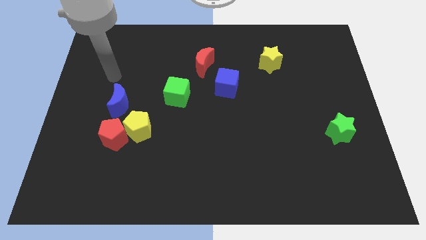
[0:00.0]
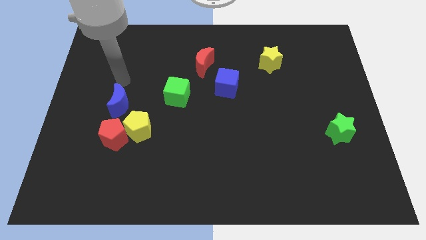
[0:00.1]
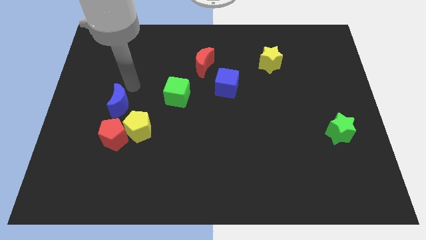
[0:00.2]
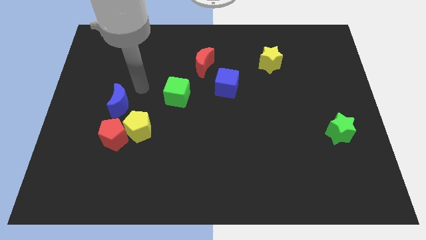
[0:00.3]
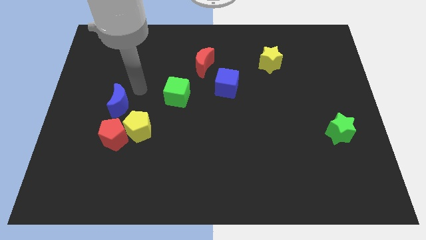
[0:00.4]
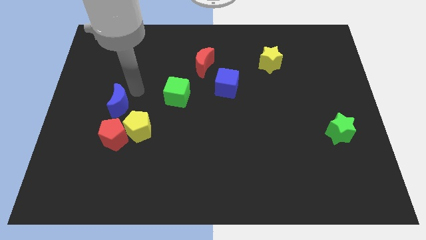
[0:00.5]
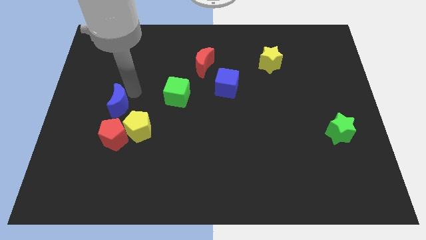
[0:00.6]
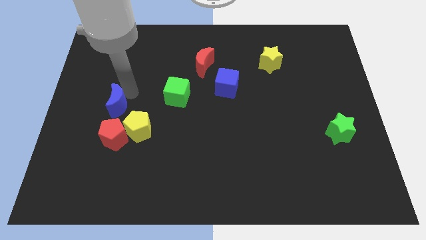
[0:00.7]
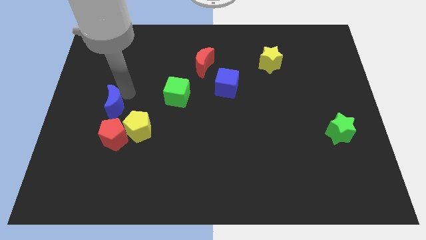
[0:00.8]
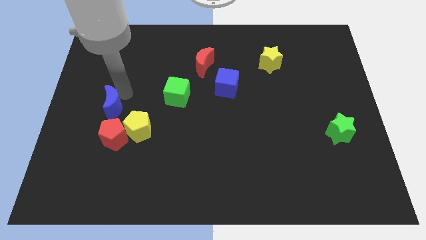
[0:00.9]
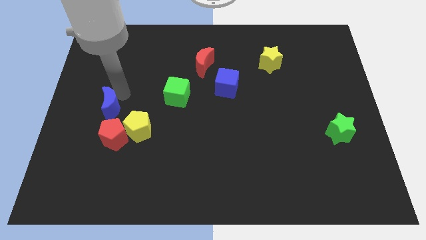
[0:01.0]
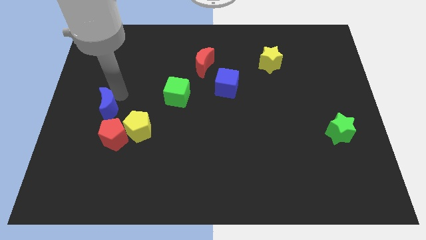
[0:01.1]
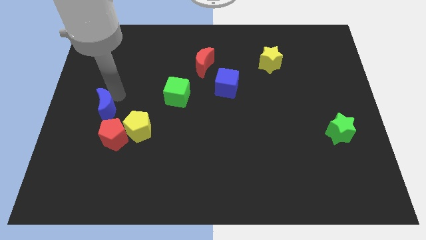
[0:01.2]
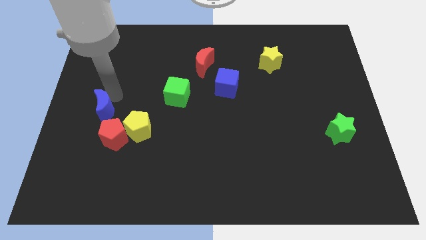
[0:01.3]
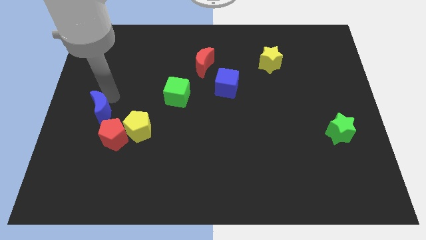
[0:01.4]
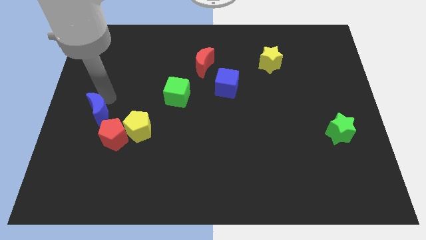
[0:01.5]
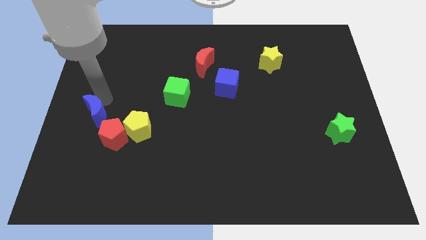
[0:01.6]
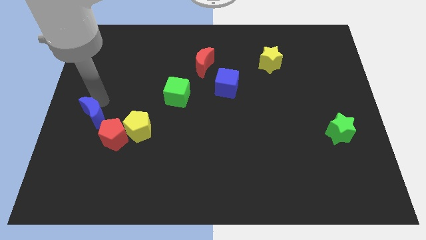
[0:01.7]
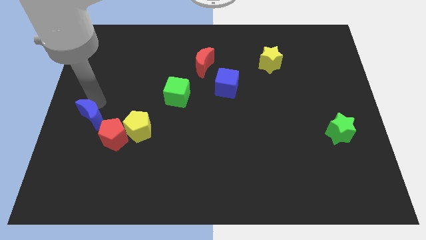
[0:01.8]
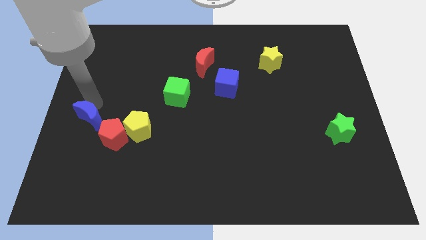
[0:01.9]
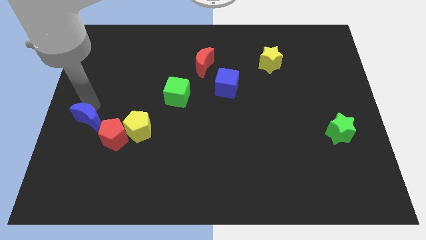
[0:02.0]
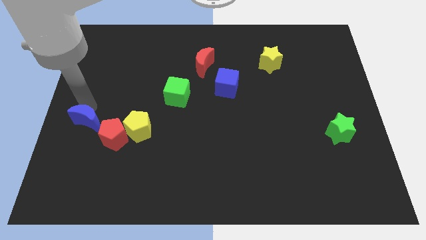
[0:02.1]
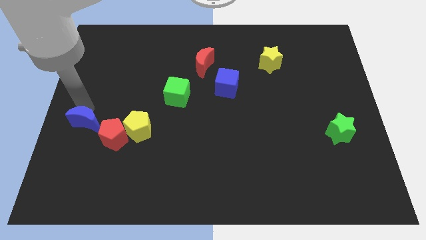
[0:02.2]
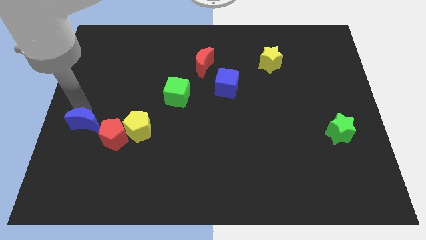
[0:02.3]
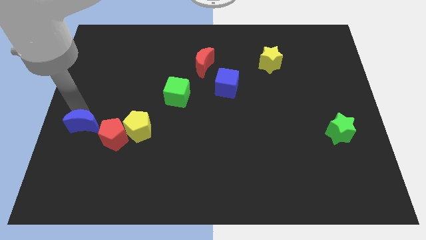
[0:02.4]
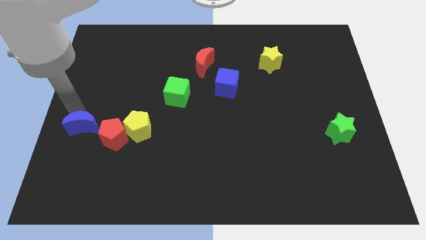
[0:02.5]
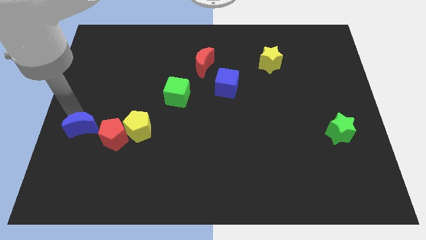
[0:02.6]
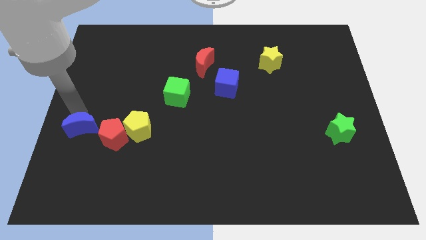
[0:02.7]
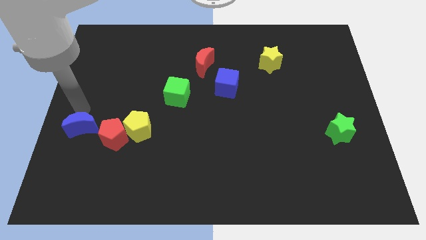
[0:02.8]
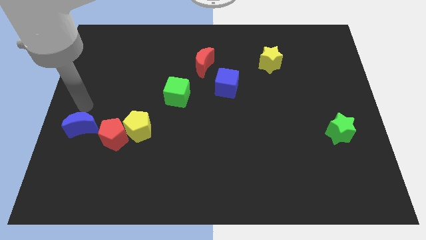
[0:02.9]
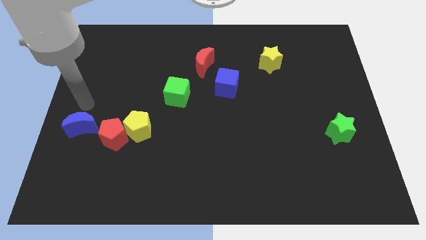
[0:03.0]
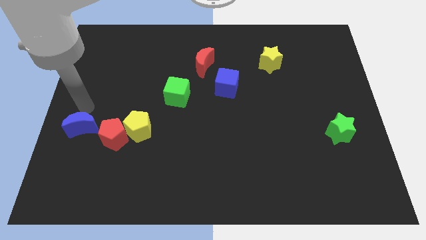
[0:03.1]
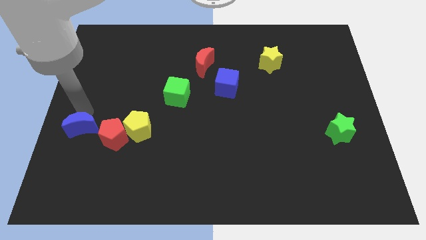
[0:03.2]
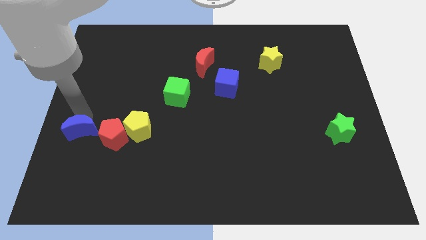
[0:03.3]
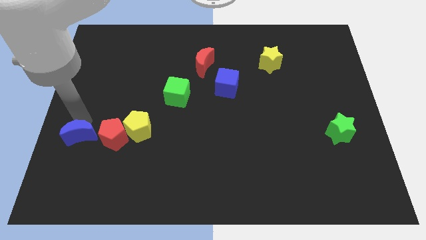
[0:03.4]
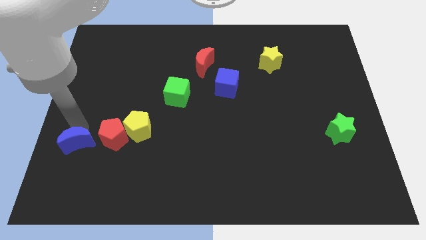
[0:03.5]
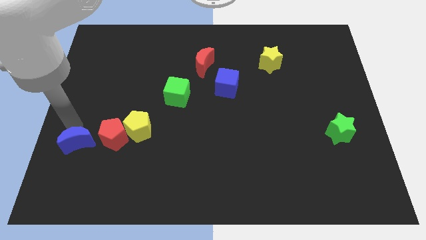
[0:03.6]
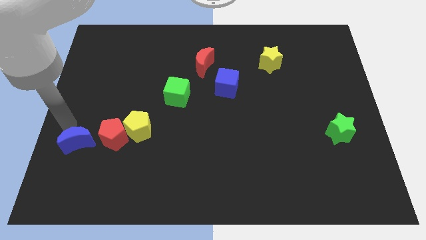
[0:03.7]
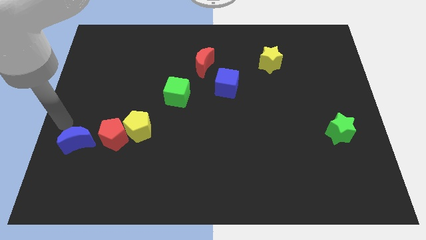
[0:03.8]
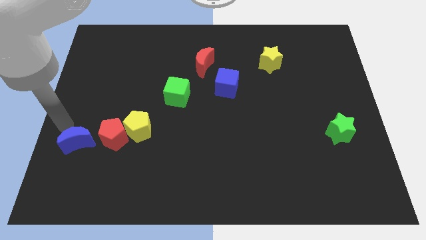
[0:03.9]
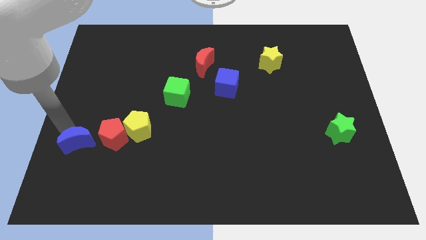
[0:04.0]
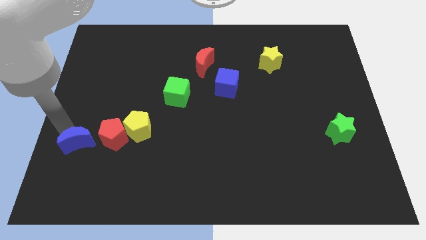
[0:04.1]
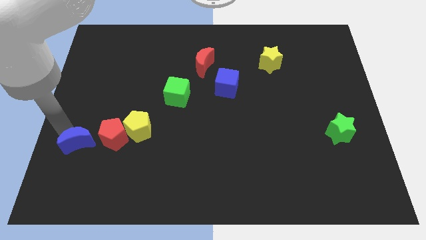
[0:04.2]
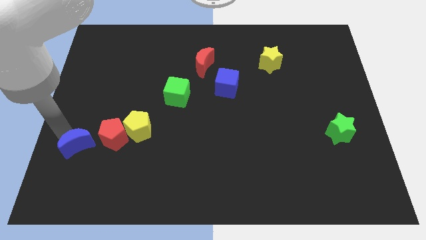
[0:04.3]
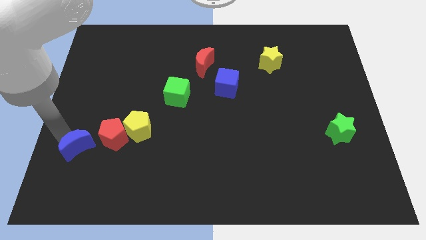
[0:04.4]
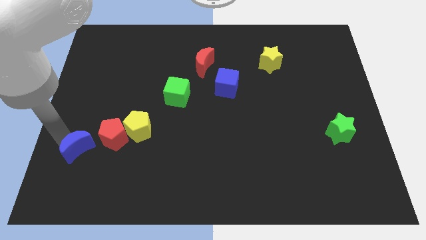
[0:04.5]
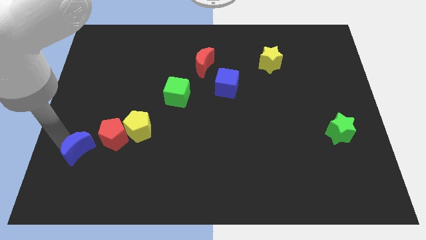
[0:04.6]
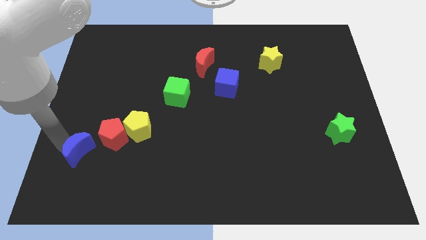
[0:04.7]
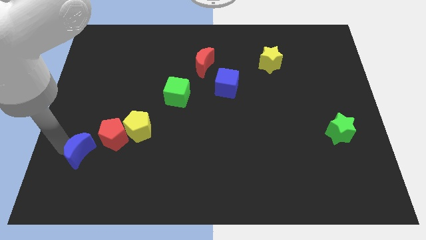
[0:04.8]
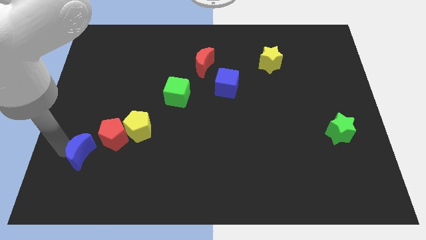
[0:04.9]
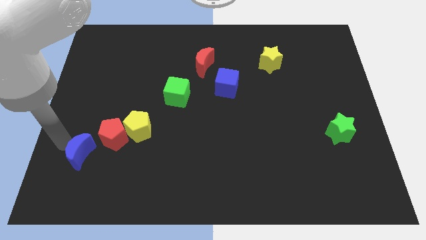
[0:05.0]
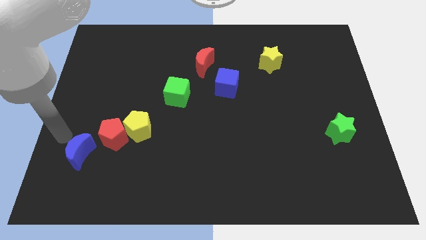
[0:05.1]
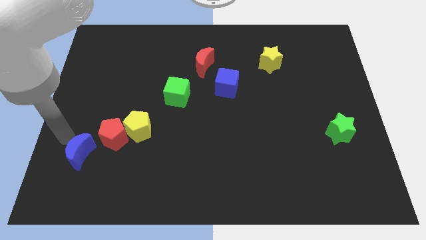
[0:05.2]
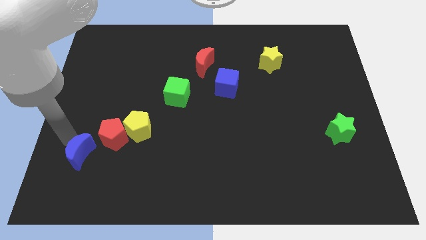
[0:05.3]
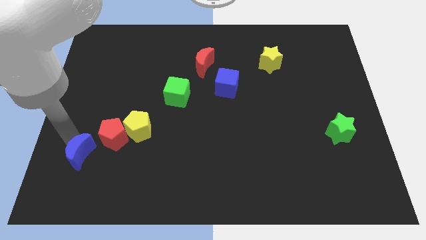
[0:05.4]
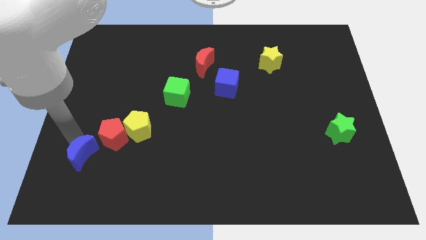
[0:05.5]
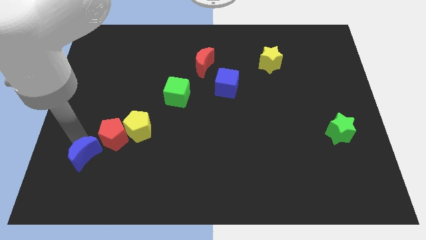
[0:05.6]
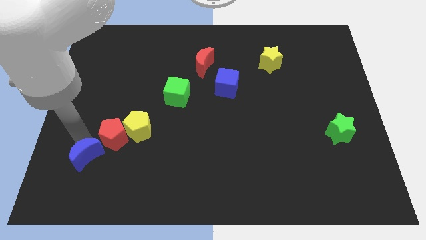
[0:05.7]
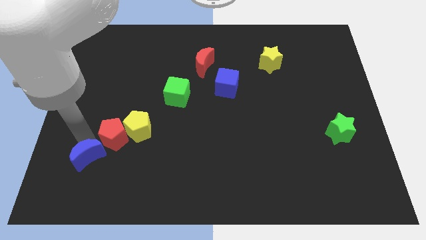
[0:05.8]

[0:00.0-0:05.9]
slide the blue moon to the bottom of the red pentagon
